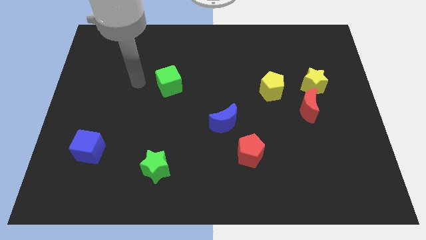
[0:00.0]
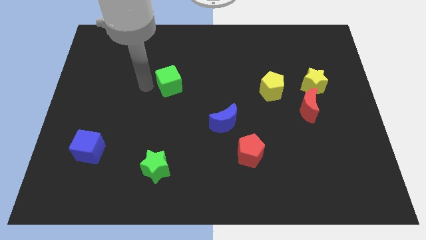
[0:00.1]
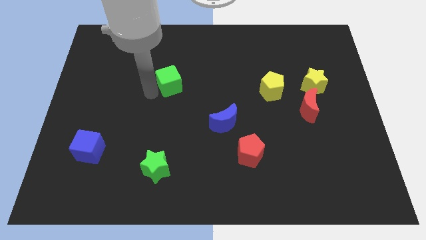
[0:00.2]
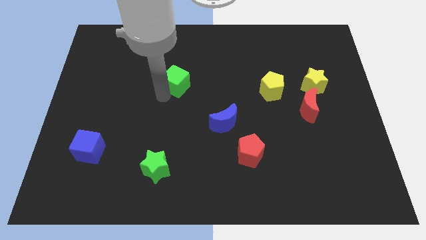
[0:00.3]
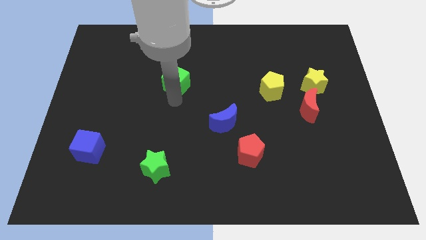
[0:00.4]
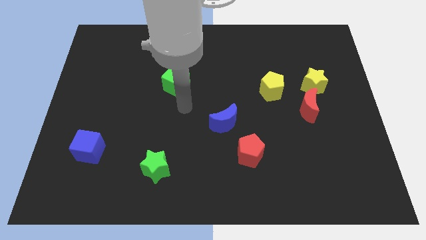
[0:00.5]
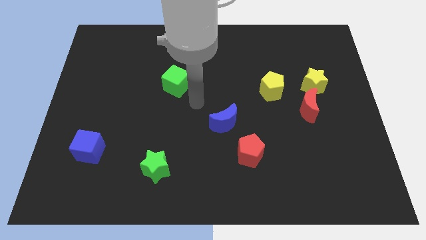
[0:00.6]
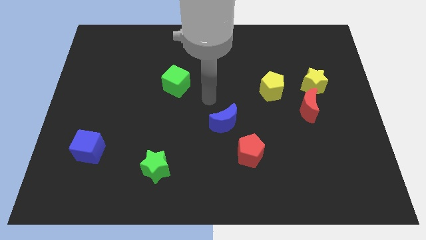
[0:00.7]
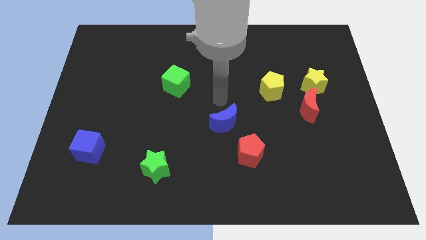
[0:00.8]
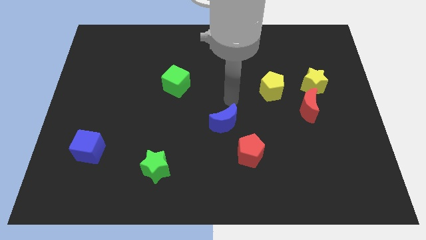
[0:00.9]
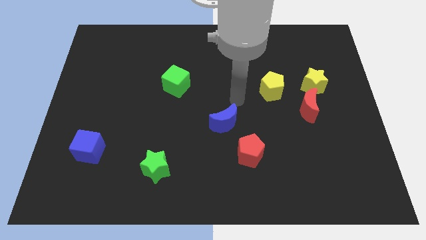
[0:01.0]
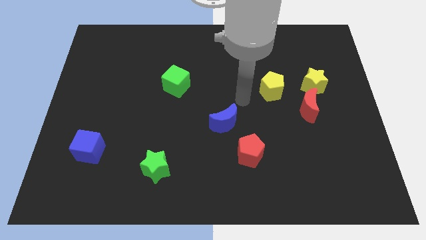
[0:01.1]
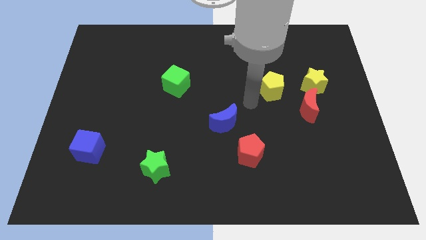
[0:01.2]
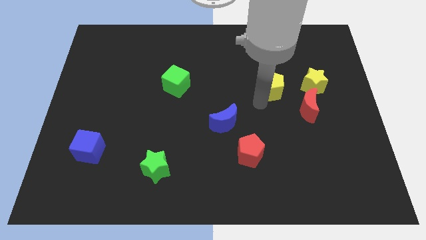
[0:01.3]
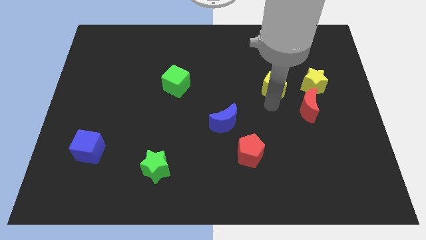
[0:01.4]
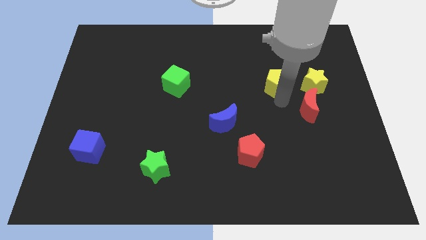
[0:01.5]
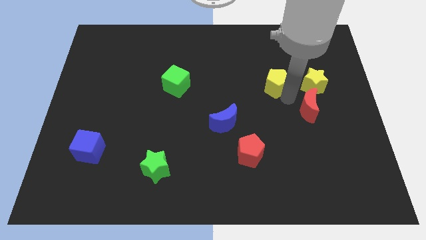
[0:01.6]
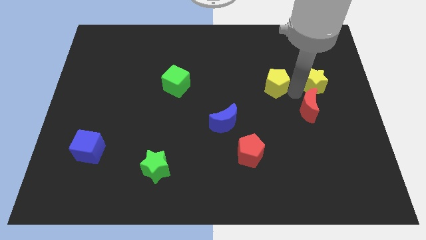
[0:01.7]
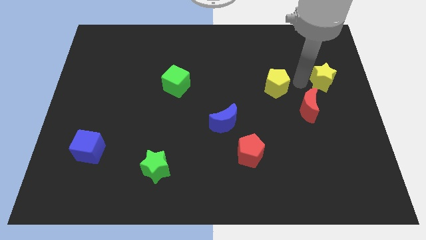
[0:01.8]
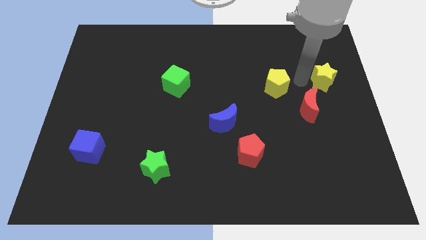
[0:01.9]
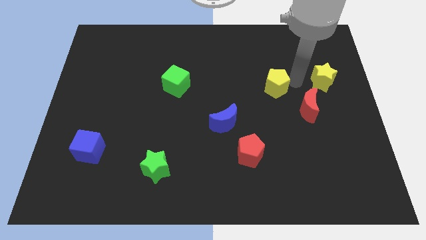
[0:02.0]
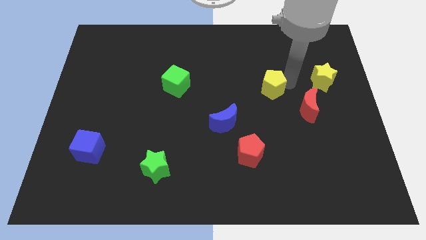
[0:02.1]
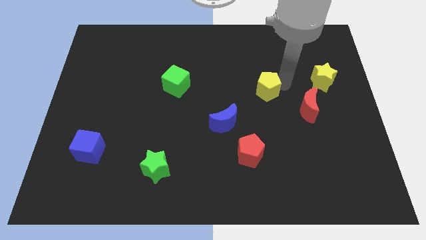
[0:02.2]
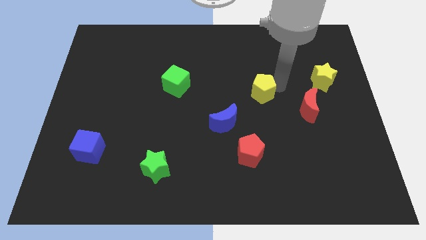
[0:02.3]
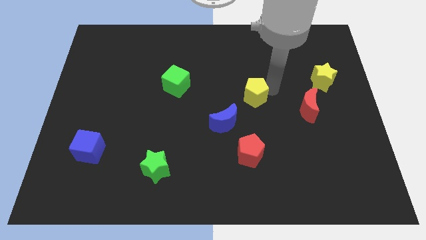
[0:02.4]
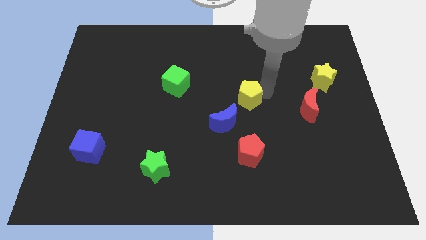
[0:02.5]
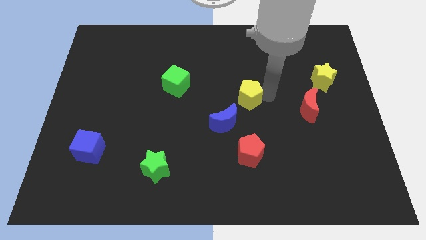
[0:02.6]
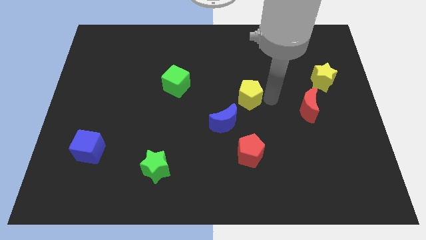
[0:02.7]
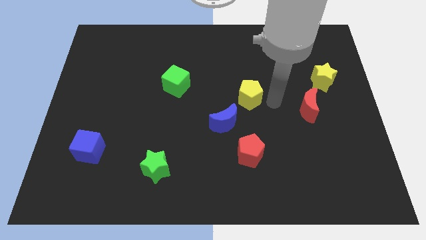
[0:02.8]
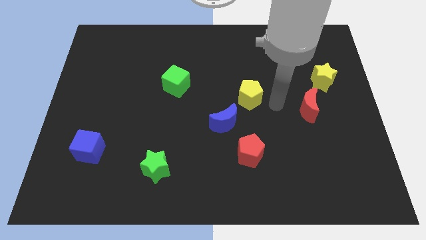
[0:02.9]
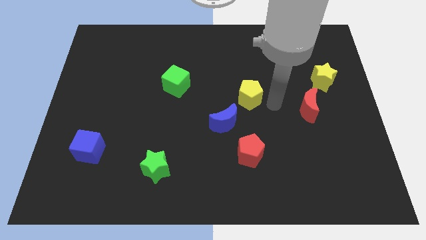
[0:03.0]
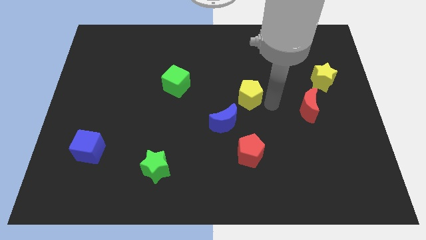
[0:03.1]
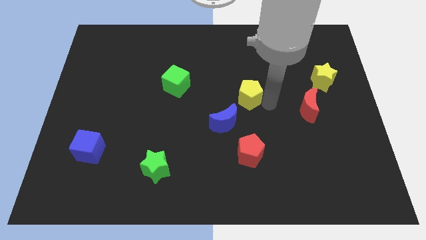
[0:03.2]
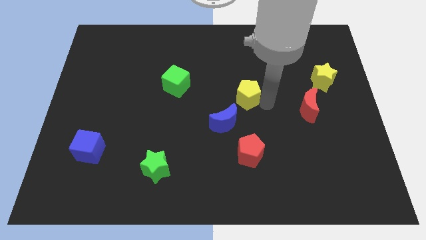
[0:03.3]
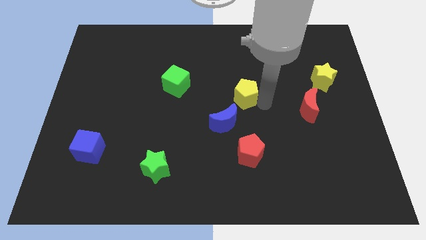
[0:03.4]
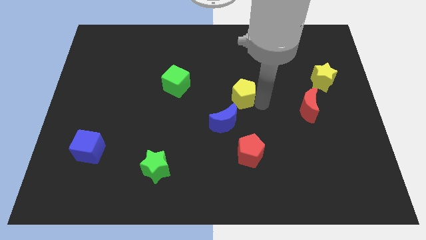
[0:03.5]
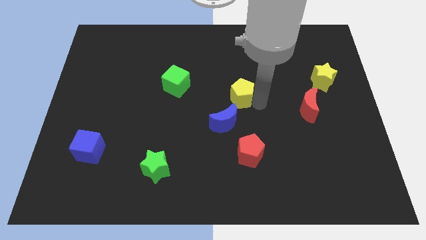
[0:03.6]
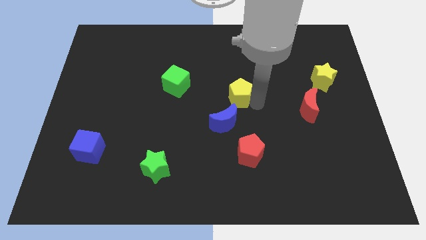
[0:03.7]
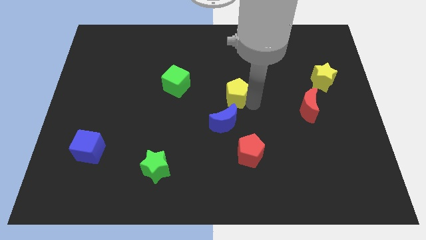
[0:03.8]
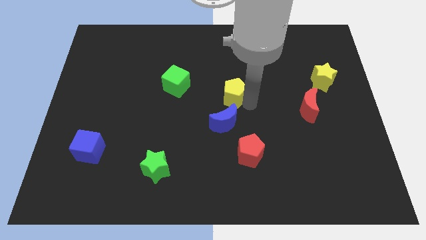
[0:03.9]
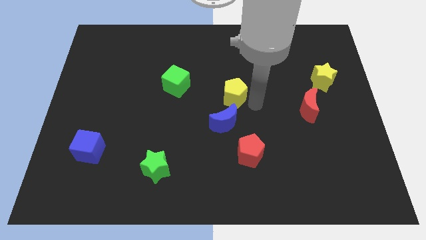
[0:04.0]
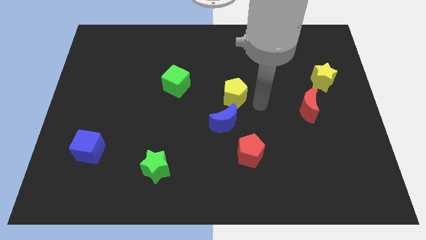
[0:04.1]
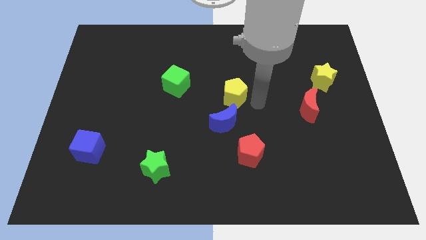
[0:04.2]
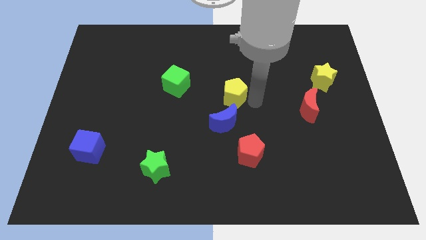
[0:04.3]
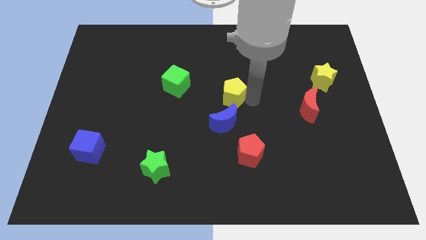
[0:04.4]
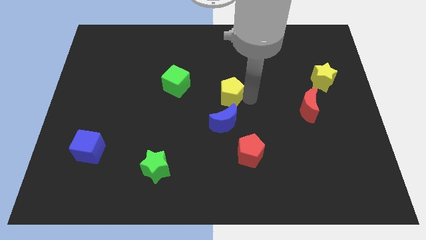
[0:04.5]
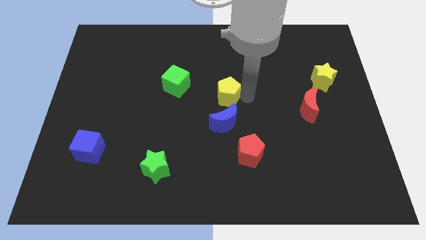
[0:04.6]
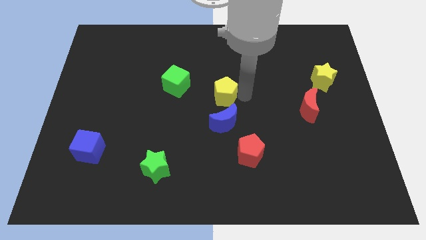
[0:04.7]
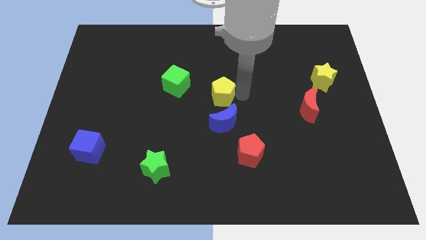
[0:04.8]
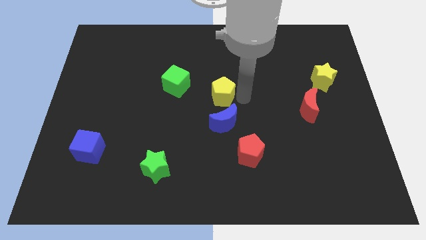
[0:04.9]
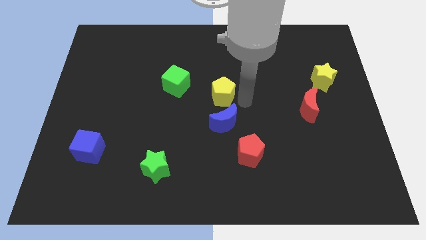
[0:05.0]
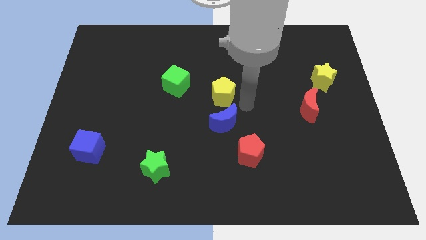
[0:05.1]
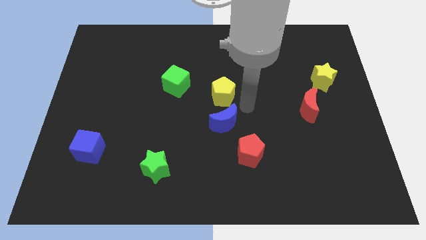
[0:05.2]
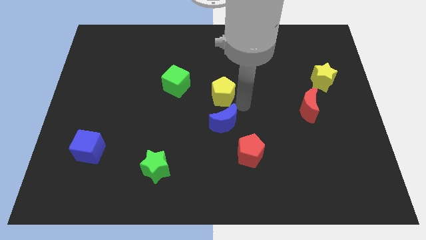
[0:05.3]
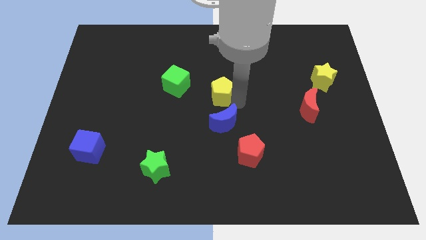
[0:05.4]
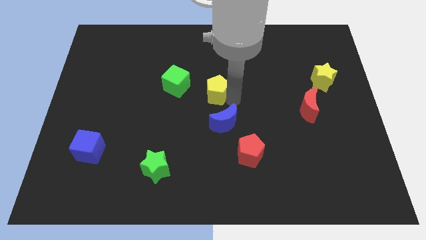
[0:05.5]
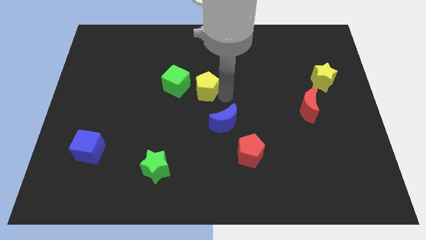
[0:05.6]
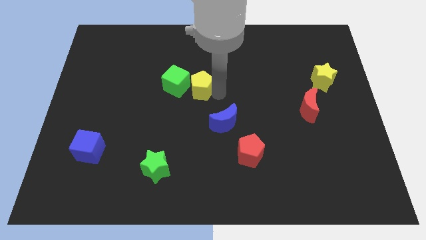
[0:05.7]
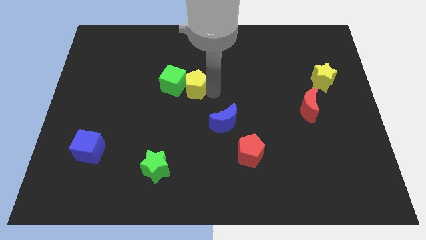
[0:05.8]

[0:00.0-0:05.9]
slide the yellow pentagon towards the green cube

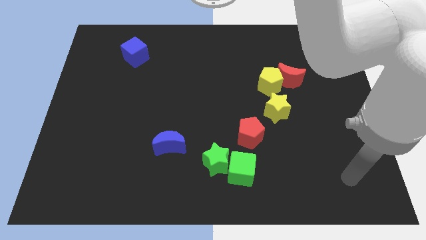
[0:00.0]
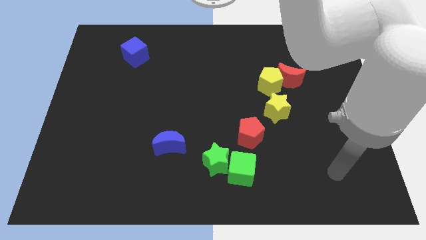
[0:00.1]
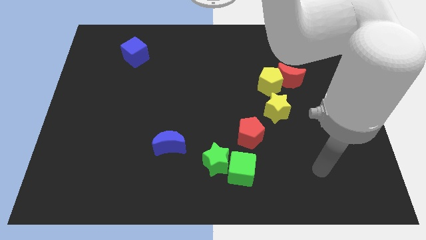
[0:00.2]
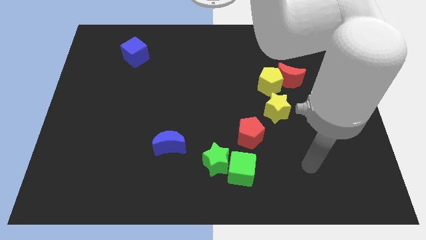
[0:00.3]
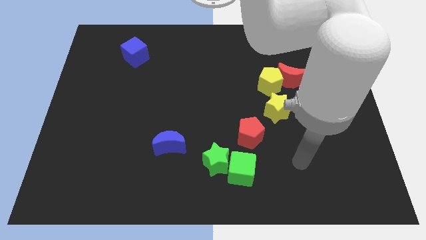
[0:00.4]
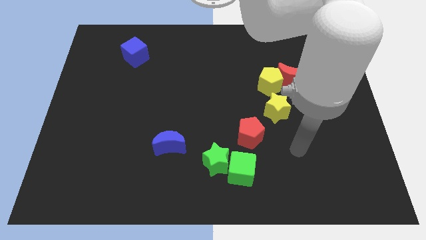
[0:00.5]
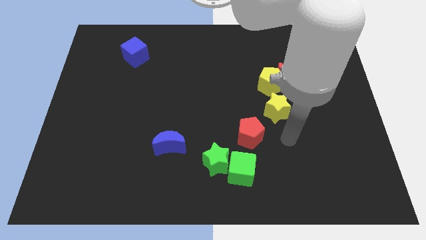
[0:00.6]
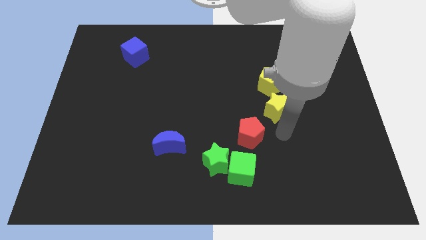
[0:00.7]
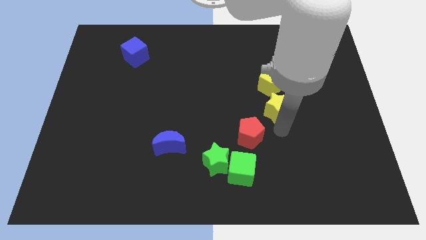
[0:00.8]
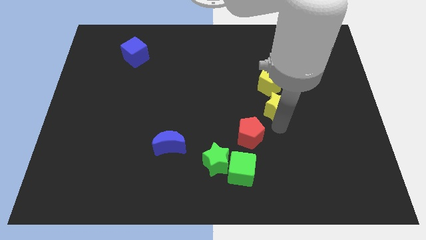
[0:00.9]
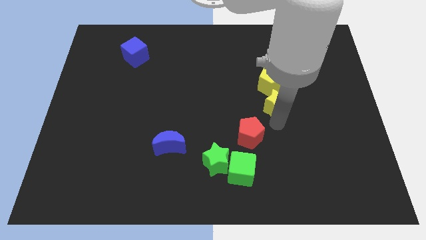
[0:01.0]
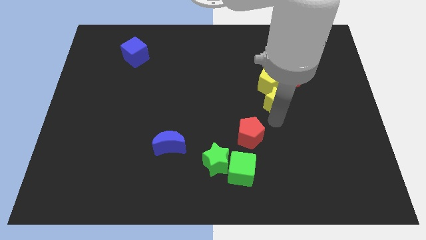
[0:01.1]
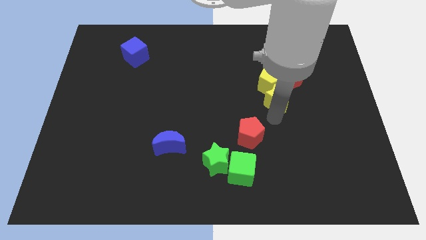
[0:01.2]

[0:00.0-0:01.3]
slide the yellow star to the yellow pentagon
